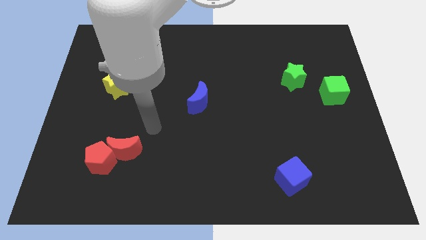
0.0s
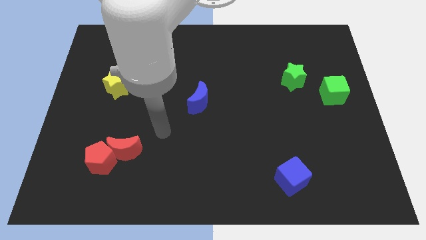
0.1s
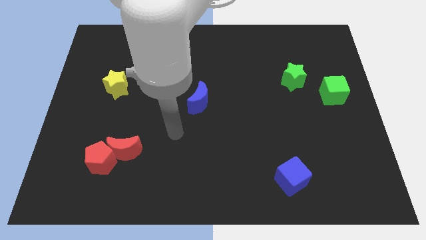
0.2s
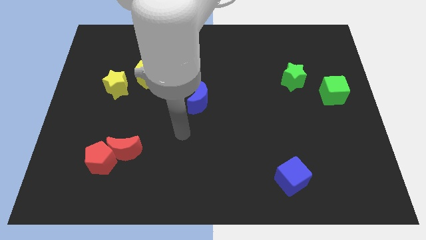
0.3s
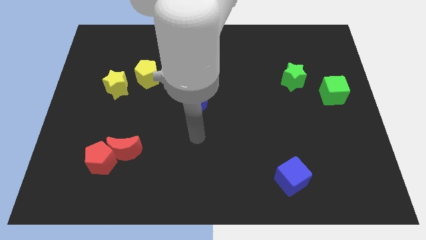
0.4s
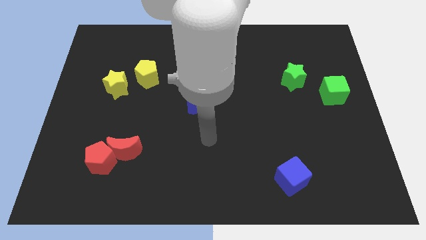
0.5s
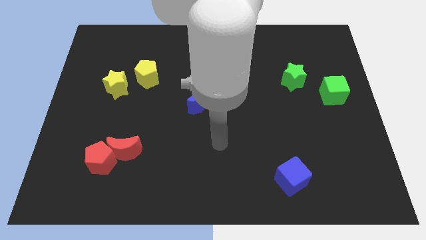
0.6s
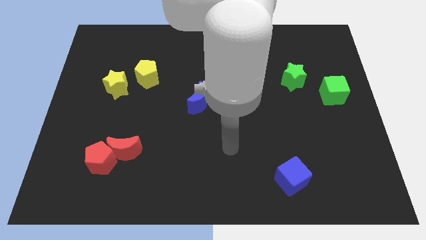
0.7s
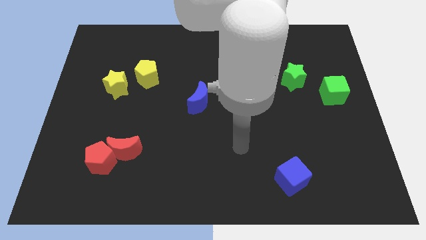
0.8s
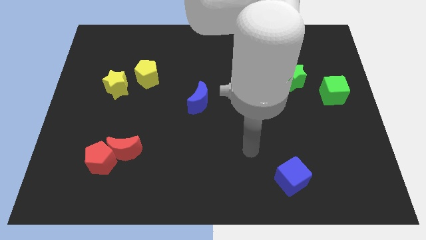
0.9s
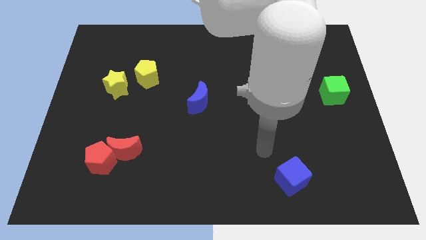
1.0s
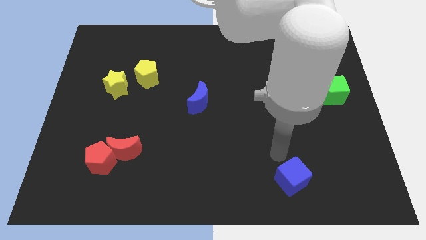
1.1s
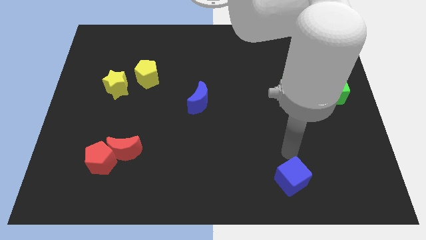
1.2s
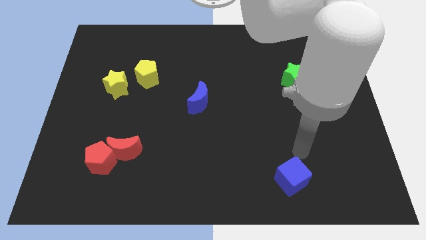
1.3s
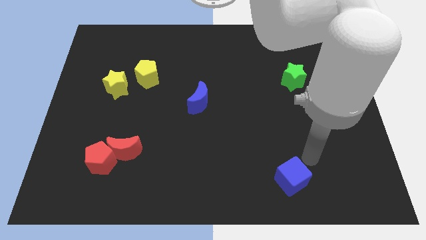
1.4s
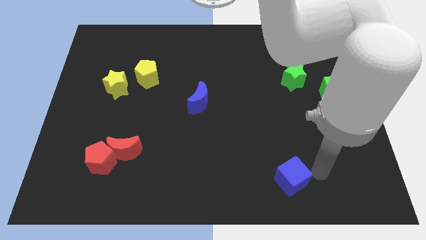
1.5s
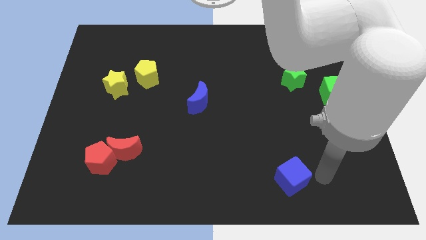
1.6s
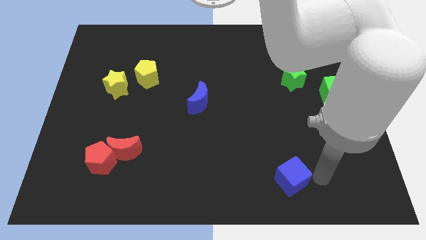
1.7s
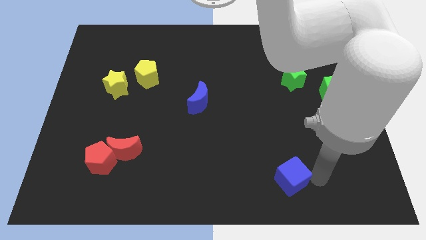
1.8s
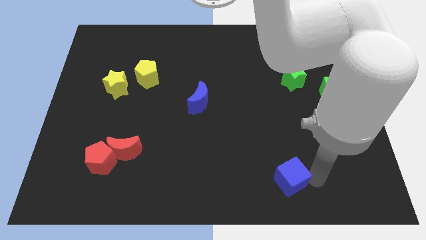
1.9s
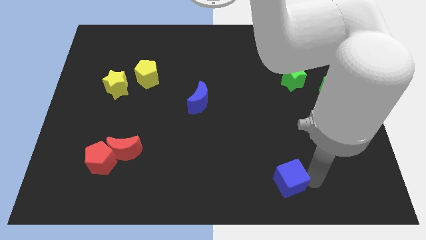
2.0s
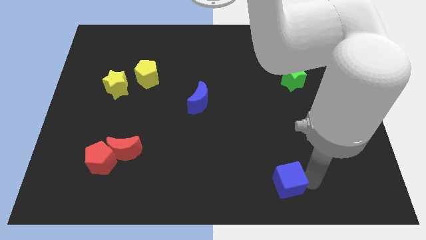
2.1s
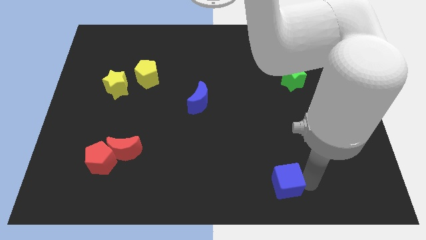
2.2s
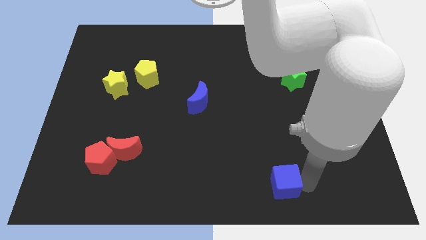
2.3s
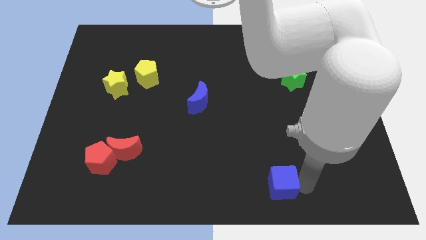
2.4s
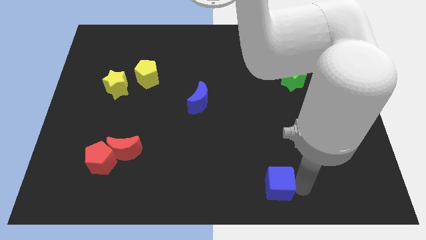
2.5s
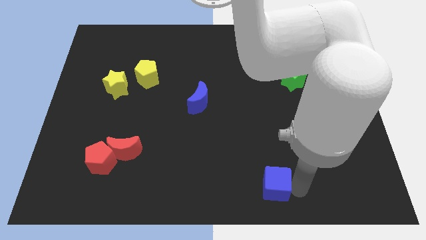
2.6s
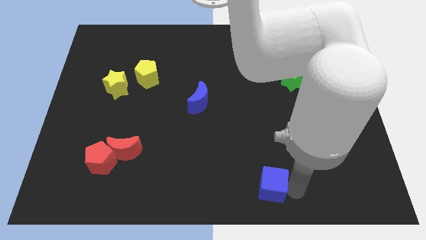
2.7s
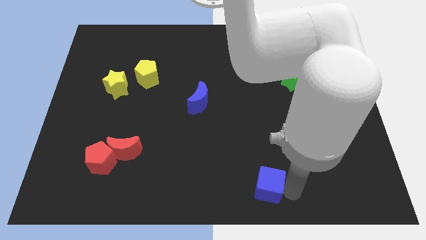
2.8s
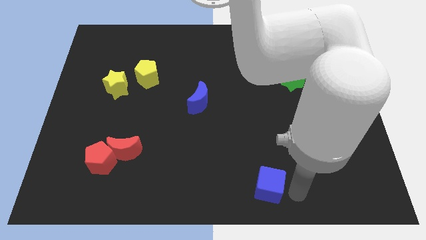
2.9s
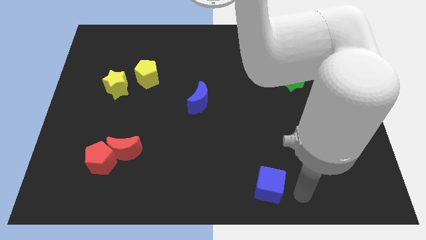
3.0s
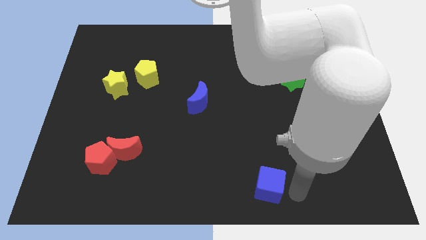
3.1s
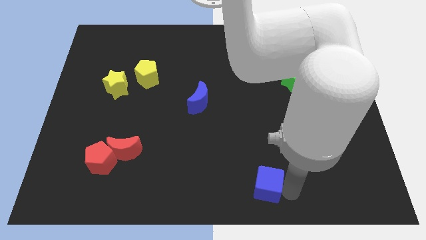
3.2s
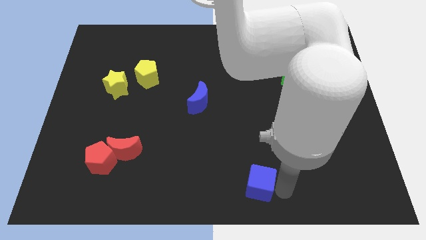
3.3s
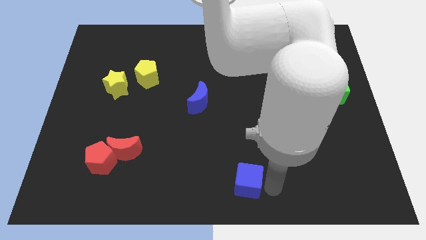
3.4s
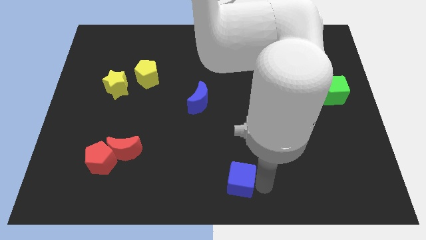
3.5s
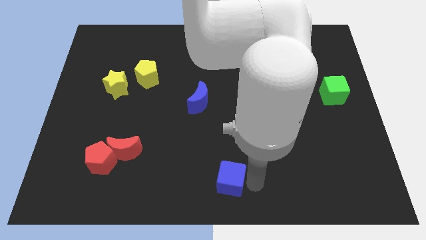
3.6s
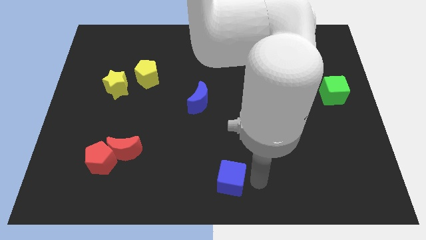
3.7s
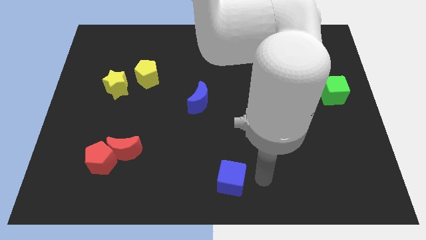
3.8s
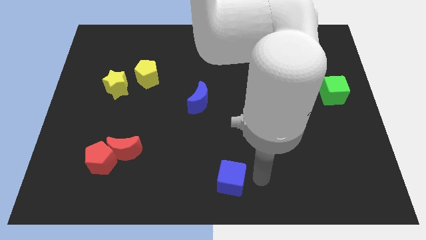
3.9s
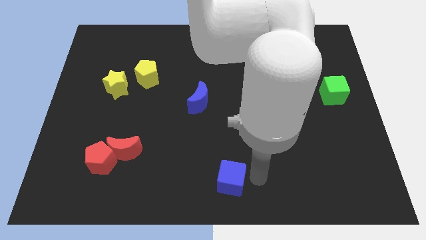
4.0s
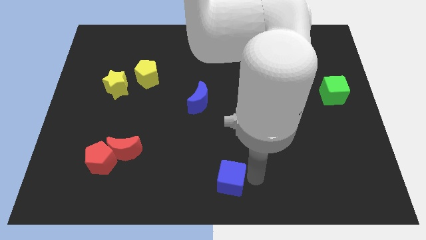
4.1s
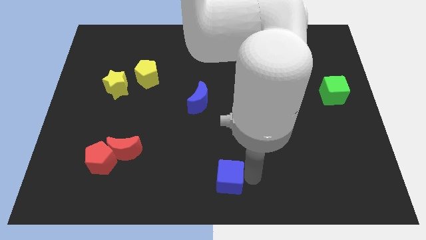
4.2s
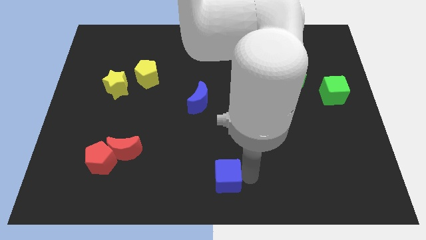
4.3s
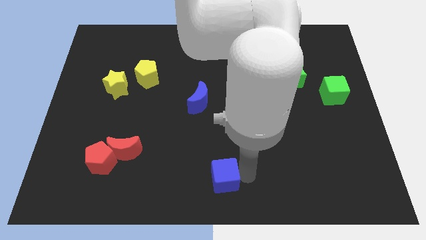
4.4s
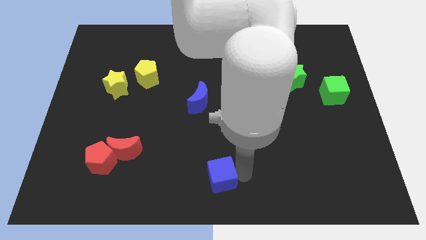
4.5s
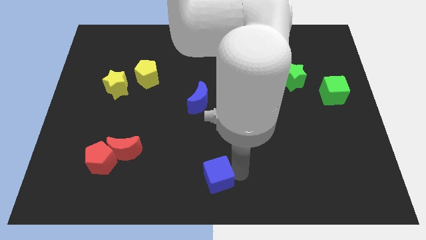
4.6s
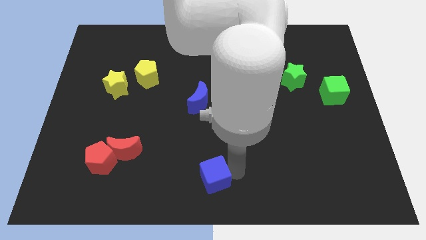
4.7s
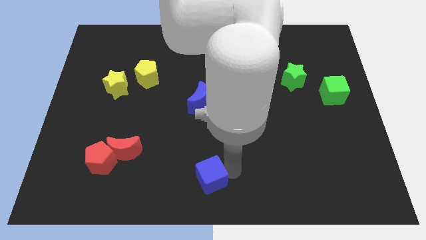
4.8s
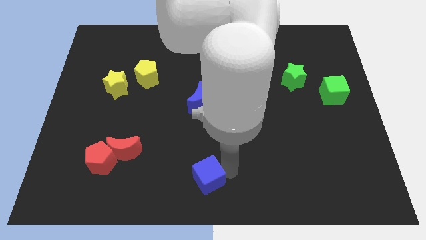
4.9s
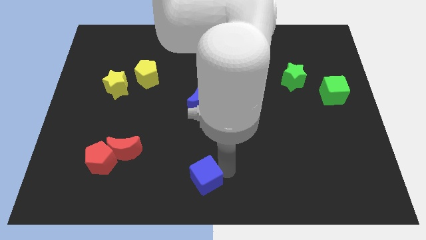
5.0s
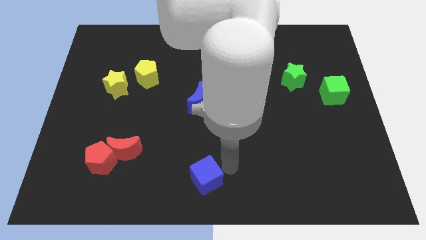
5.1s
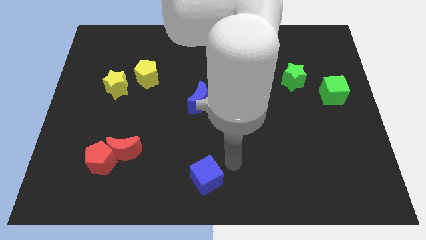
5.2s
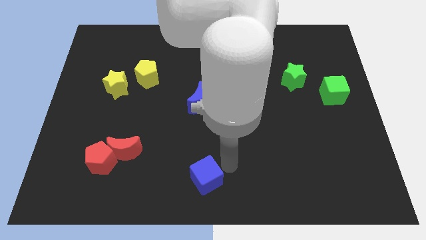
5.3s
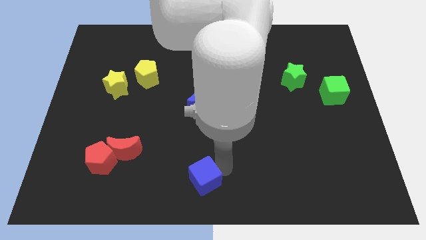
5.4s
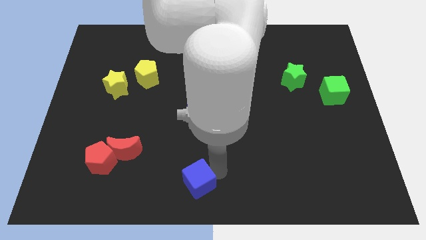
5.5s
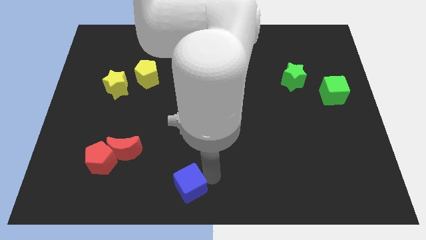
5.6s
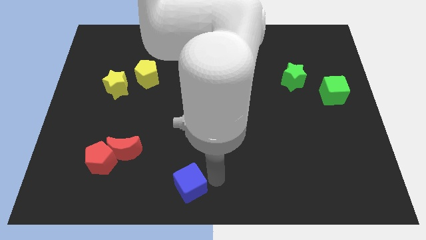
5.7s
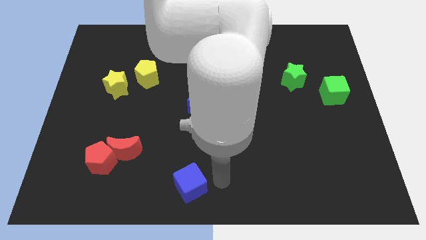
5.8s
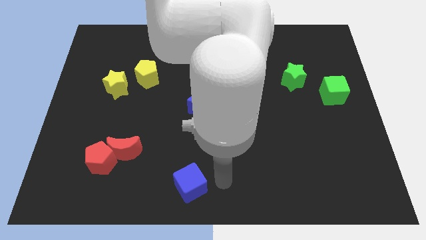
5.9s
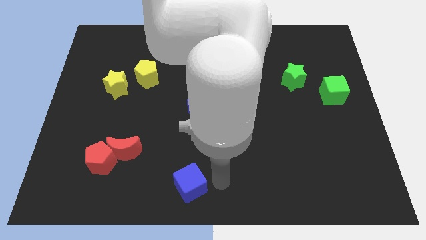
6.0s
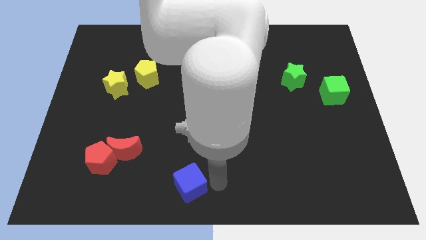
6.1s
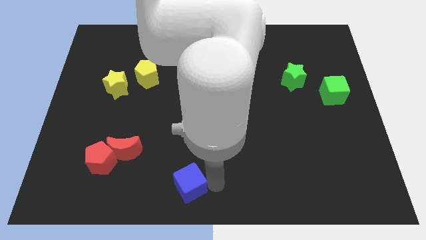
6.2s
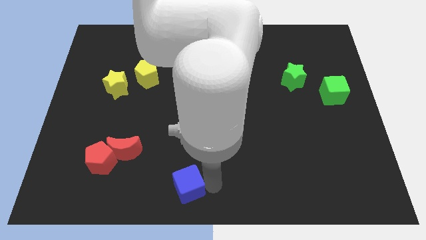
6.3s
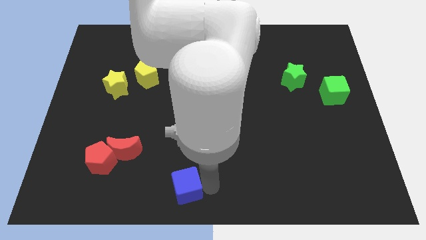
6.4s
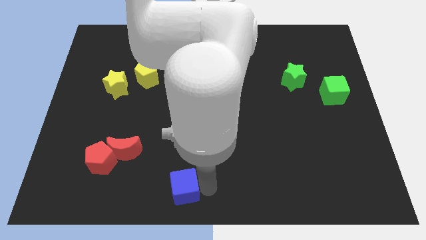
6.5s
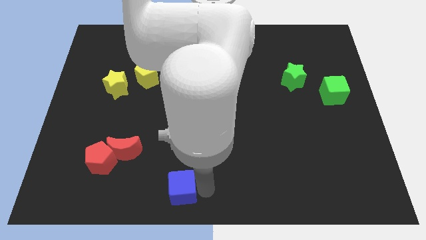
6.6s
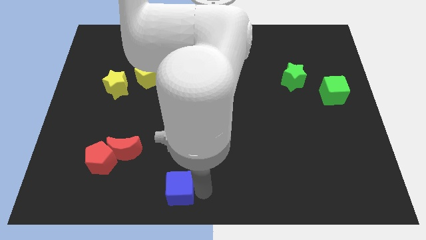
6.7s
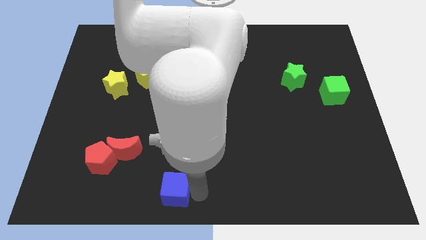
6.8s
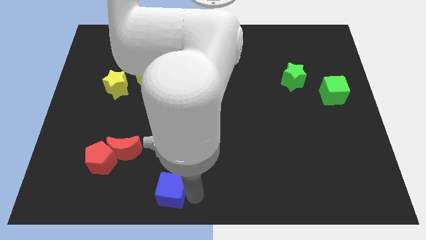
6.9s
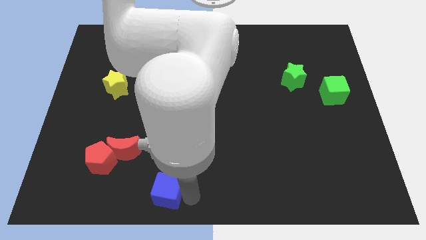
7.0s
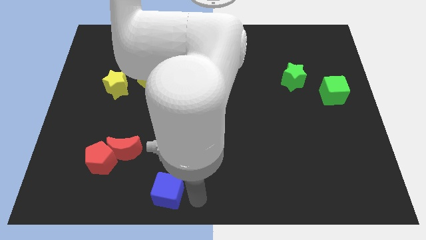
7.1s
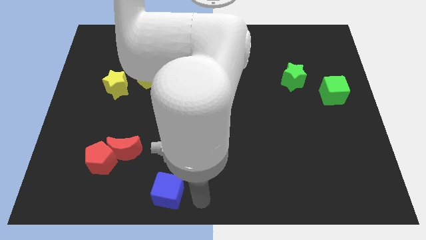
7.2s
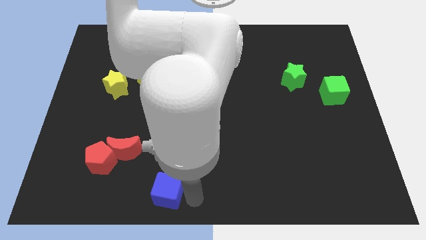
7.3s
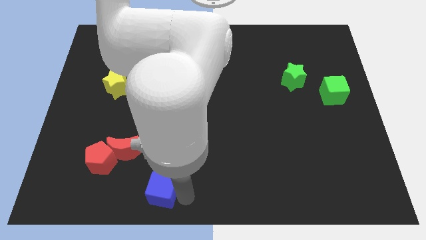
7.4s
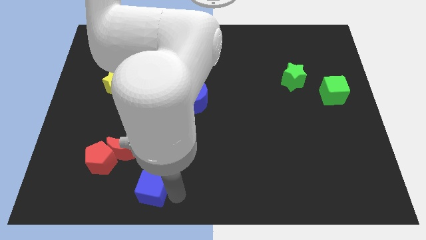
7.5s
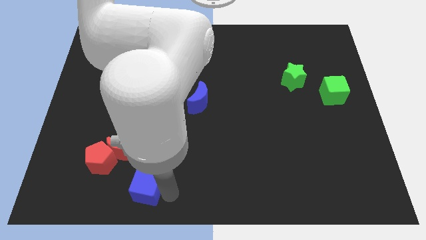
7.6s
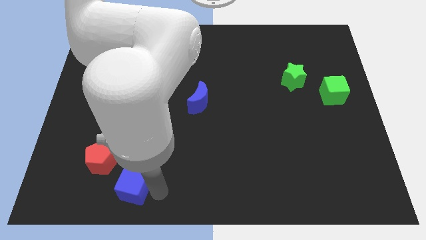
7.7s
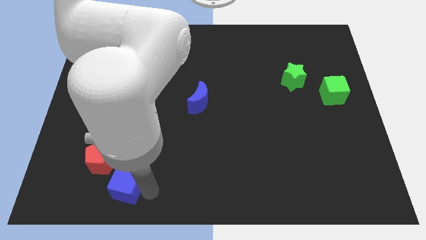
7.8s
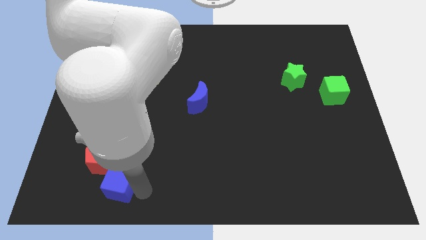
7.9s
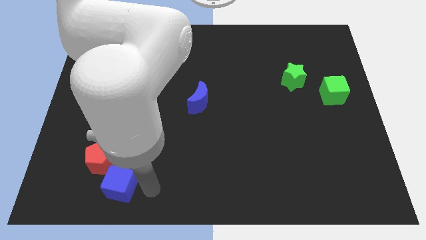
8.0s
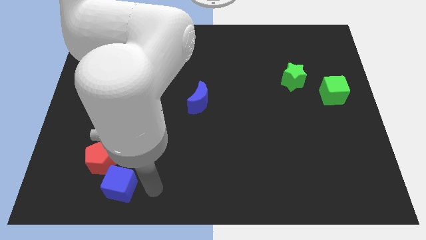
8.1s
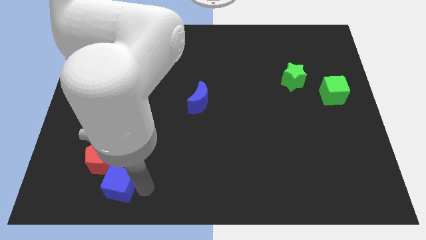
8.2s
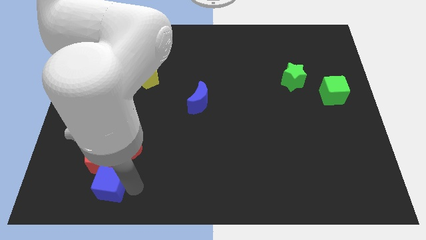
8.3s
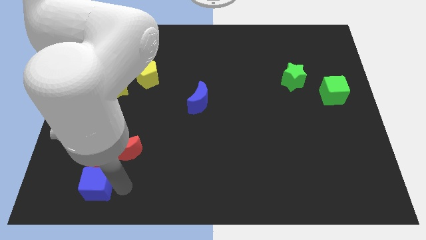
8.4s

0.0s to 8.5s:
push the blue cube to the bottom left side of the red pentagon
